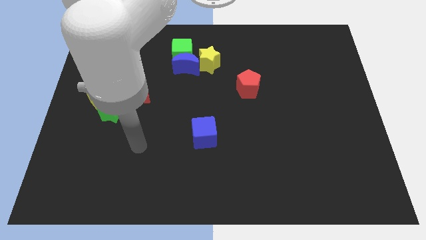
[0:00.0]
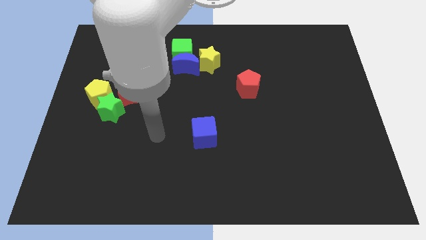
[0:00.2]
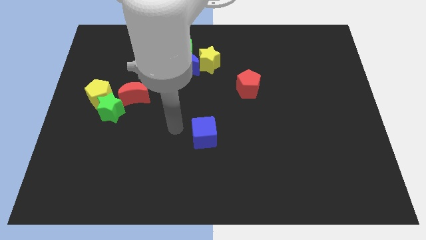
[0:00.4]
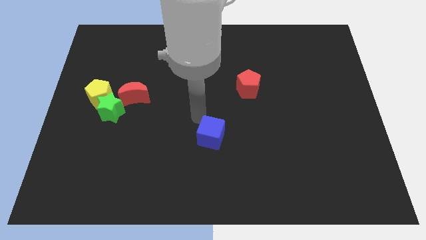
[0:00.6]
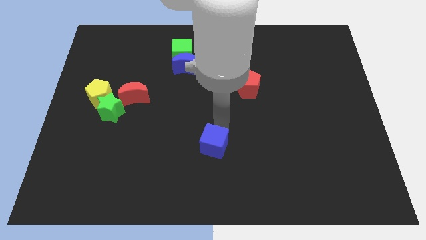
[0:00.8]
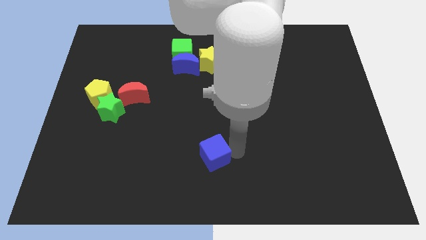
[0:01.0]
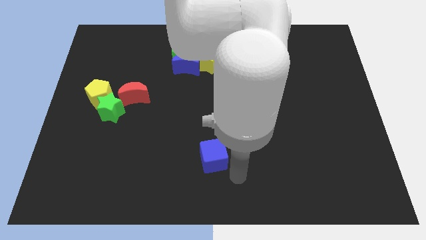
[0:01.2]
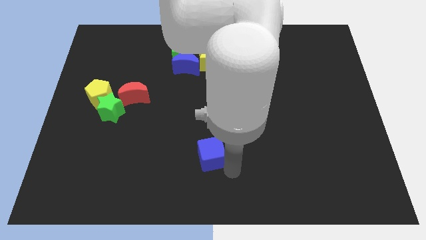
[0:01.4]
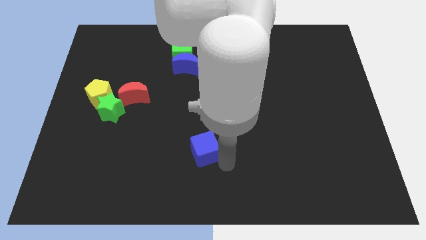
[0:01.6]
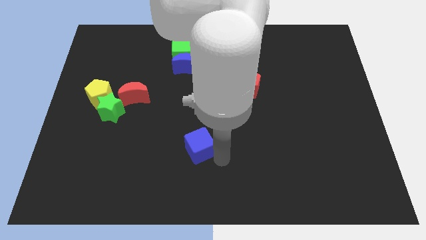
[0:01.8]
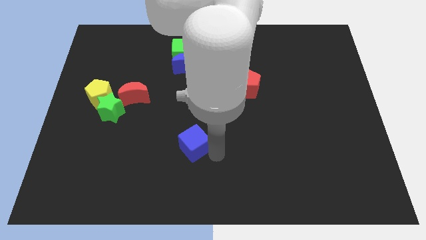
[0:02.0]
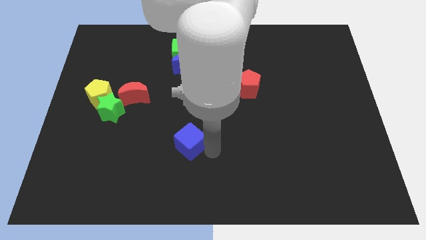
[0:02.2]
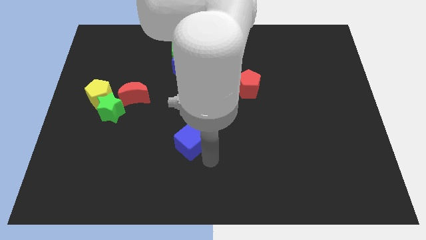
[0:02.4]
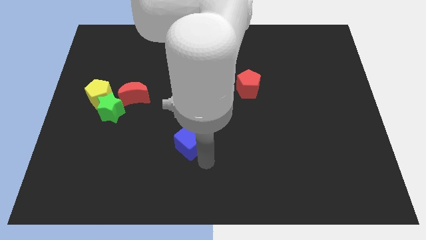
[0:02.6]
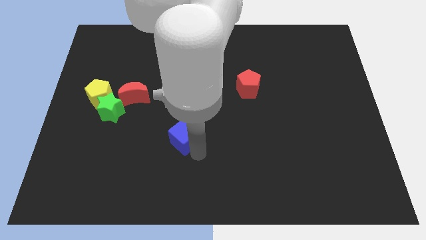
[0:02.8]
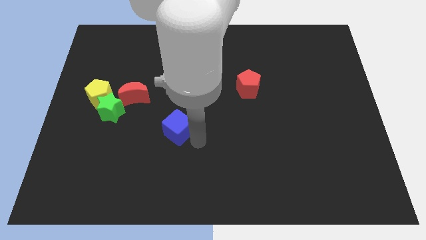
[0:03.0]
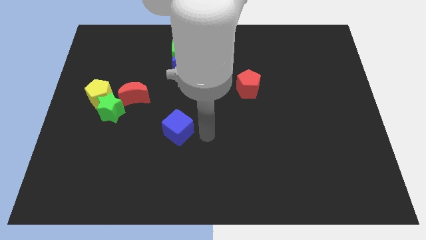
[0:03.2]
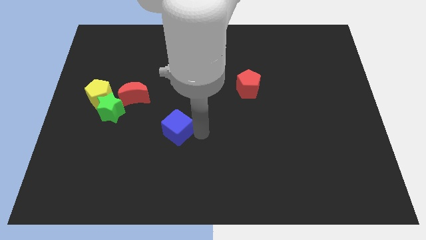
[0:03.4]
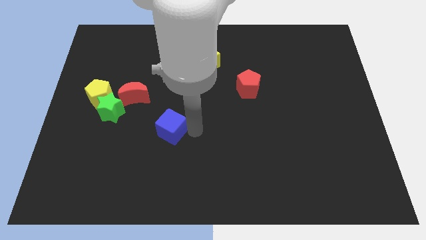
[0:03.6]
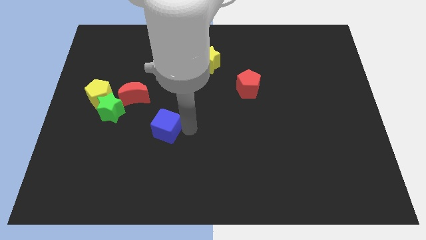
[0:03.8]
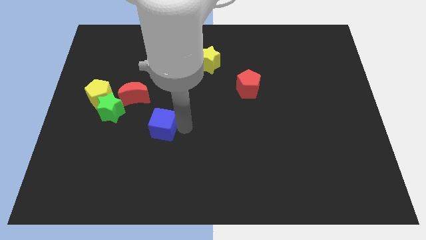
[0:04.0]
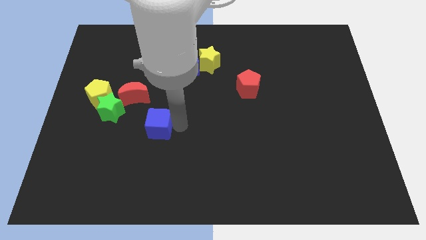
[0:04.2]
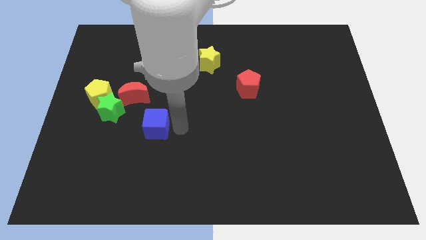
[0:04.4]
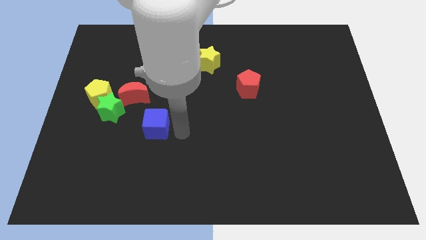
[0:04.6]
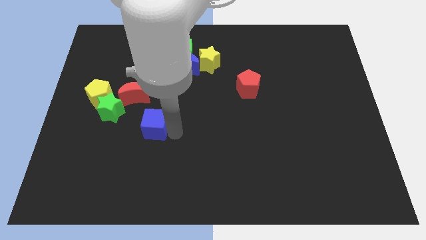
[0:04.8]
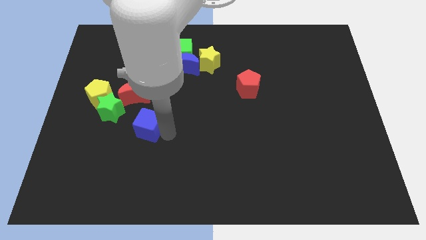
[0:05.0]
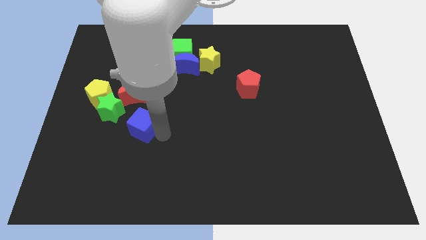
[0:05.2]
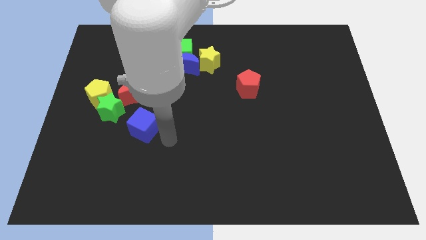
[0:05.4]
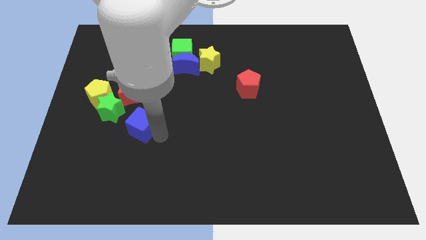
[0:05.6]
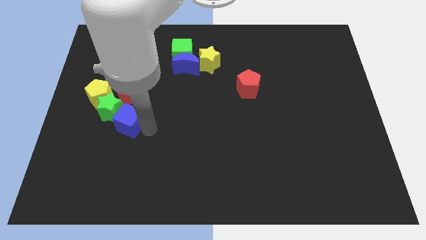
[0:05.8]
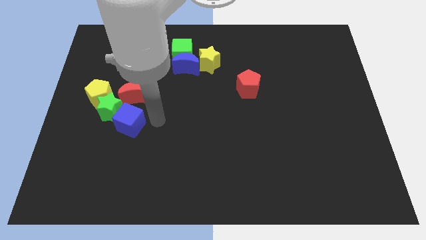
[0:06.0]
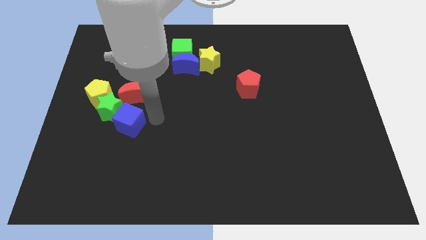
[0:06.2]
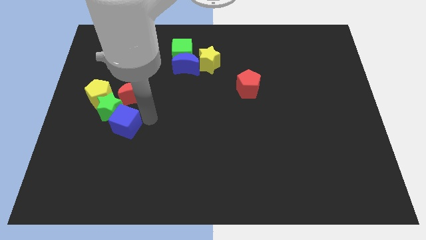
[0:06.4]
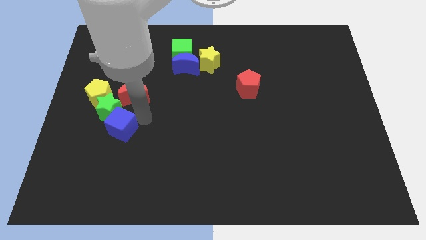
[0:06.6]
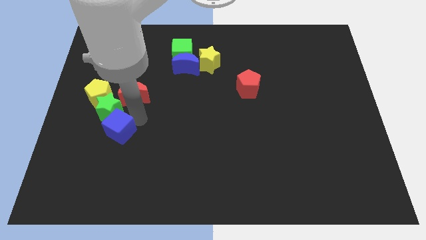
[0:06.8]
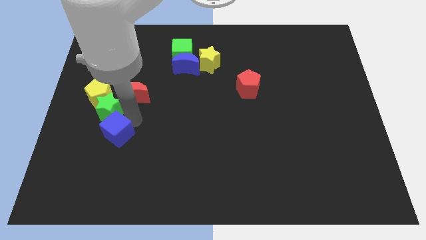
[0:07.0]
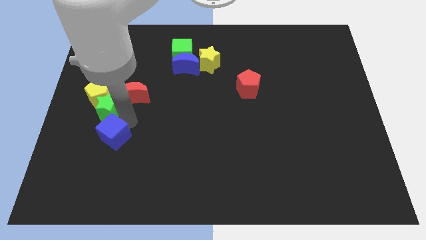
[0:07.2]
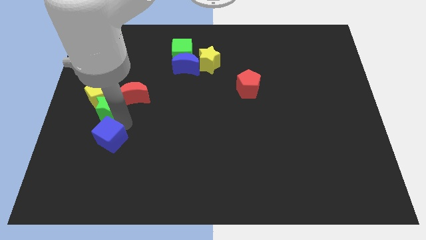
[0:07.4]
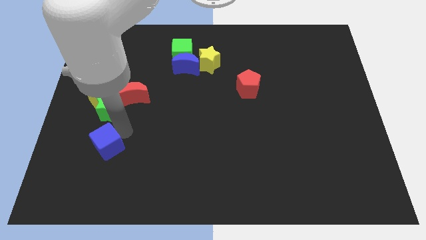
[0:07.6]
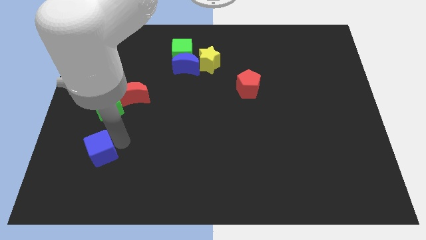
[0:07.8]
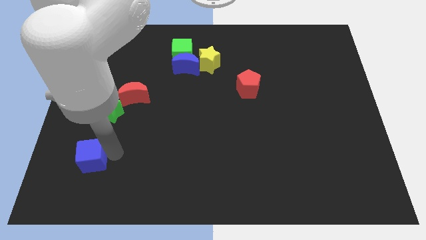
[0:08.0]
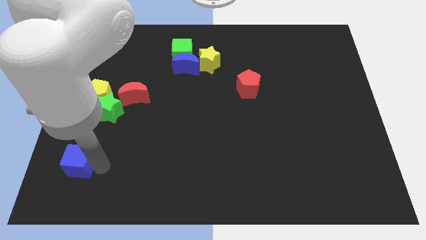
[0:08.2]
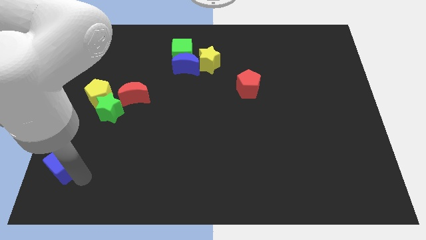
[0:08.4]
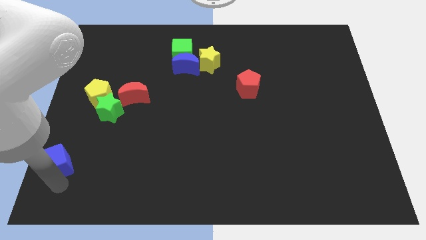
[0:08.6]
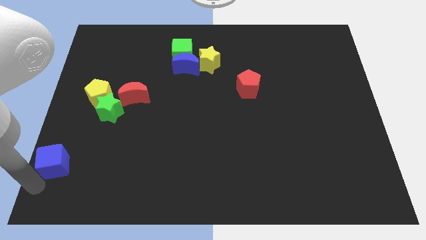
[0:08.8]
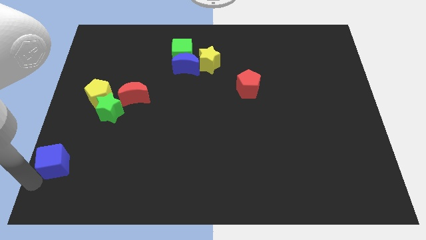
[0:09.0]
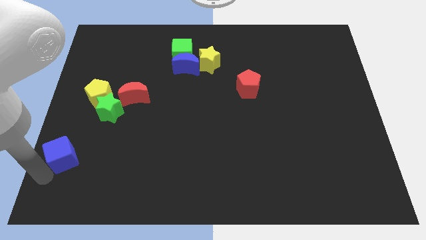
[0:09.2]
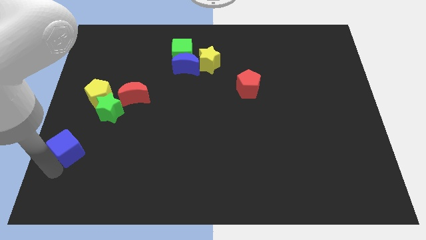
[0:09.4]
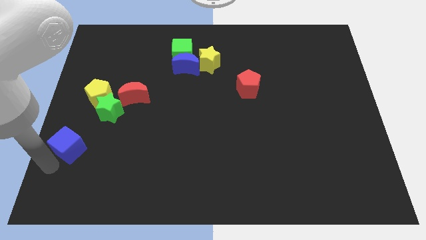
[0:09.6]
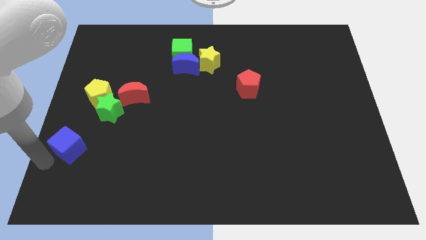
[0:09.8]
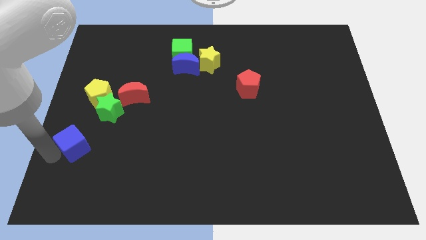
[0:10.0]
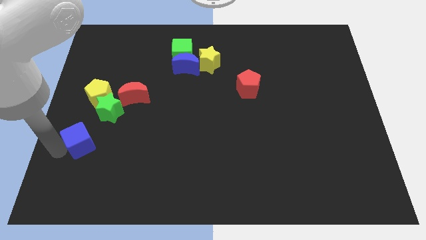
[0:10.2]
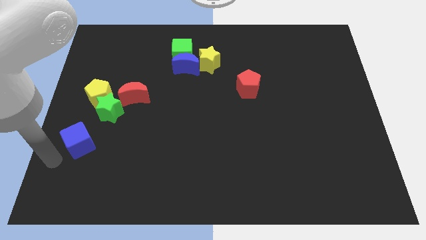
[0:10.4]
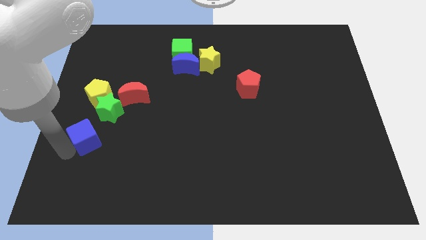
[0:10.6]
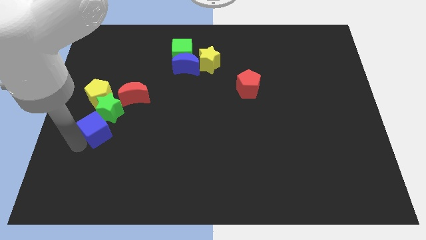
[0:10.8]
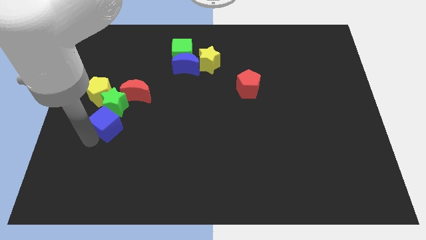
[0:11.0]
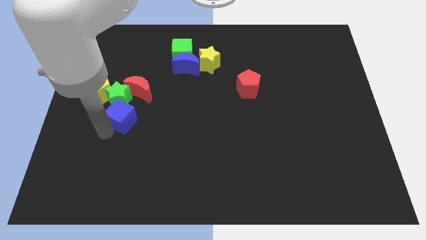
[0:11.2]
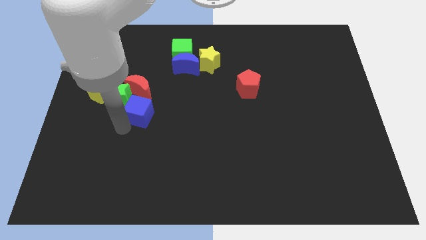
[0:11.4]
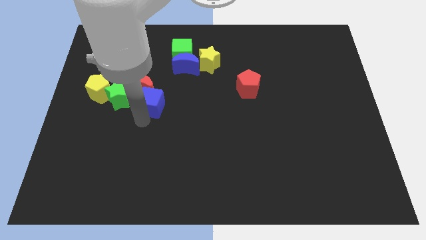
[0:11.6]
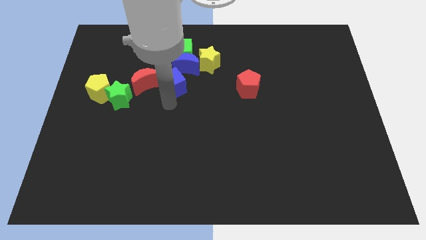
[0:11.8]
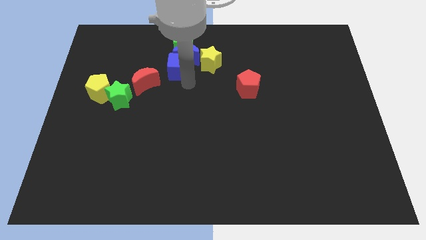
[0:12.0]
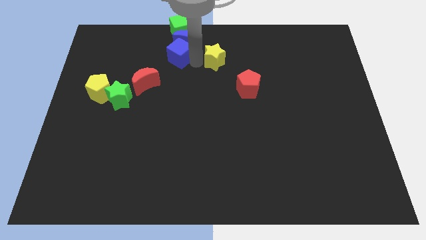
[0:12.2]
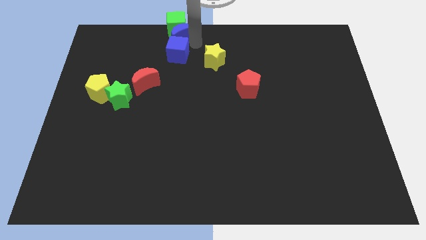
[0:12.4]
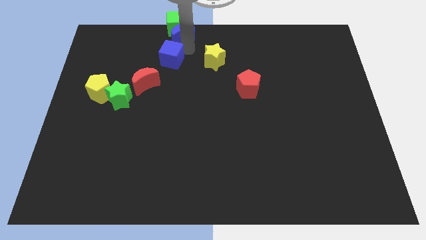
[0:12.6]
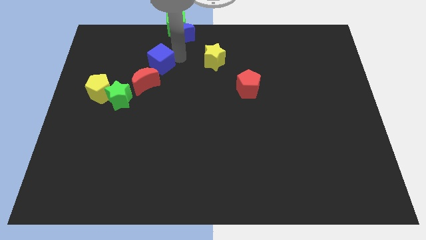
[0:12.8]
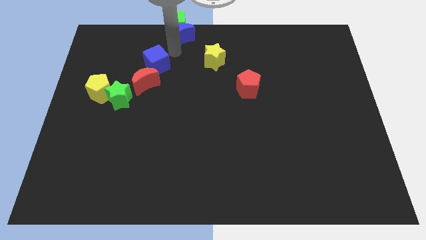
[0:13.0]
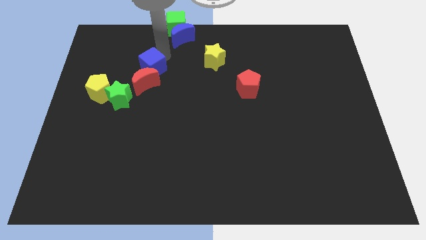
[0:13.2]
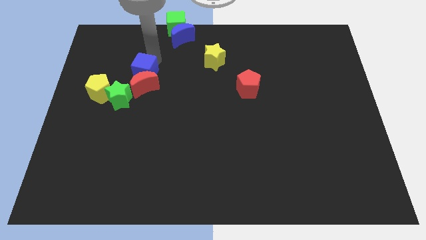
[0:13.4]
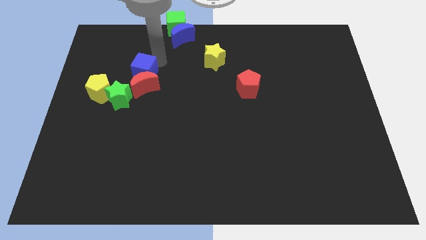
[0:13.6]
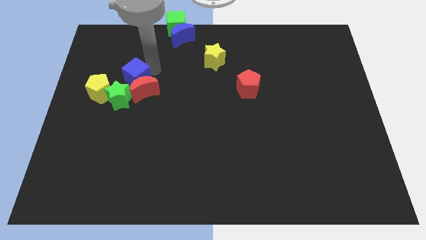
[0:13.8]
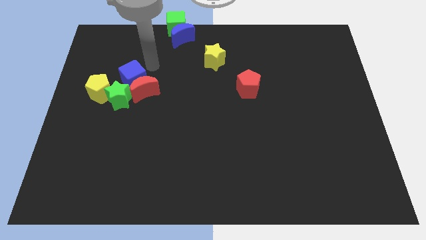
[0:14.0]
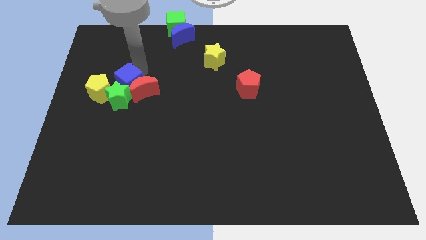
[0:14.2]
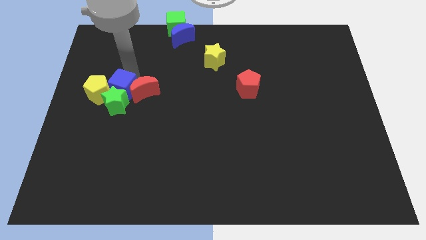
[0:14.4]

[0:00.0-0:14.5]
slide the blue cube to the yellow pentagon
